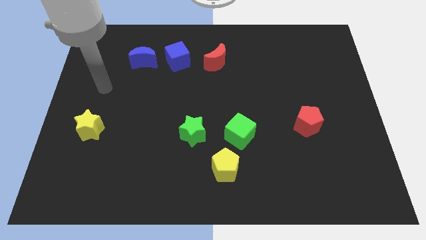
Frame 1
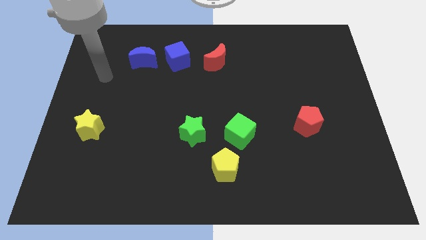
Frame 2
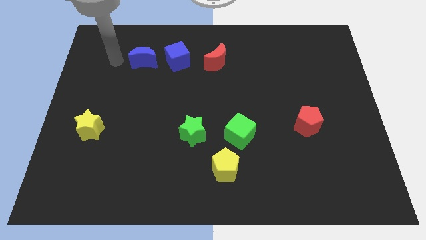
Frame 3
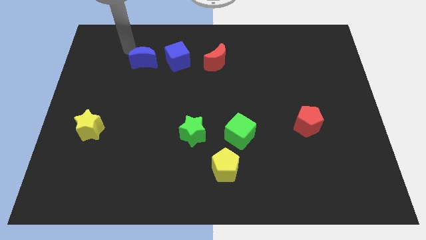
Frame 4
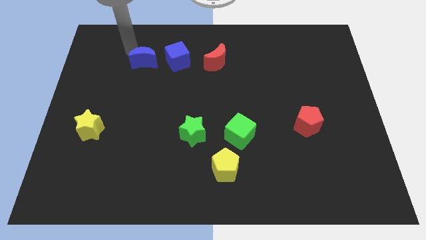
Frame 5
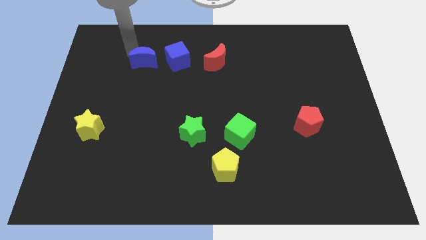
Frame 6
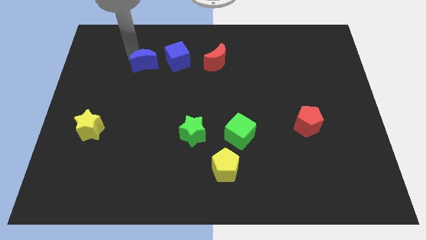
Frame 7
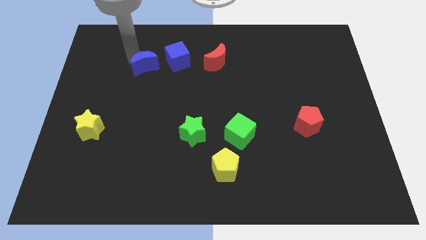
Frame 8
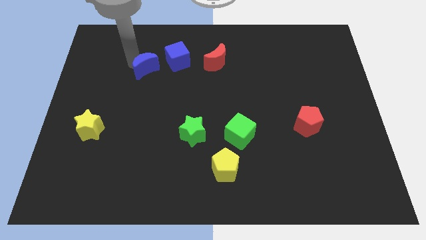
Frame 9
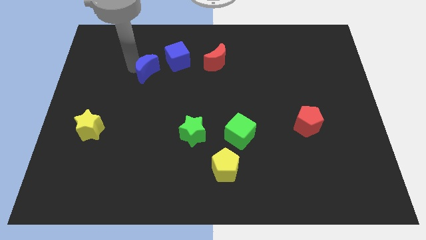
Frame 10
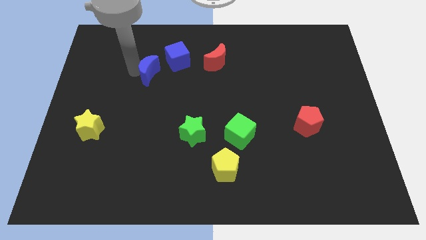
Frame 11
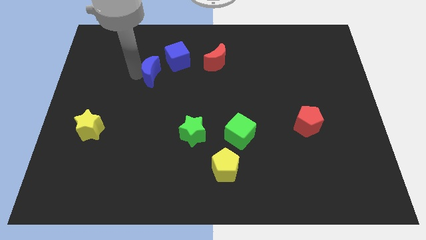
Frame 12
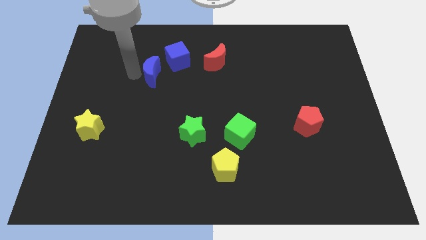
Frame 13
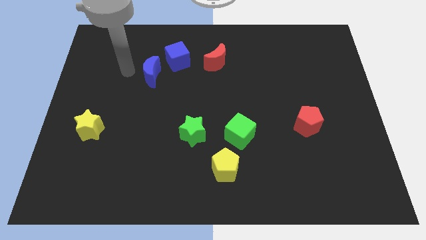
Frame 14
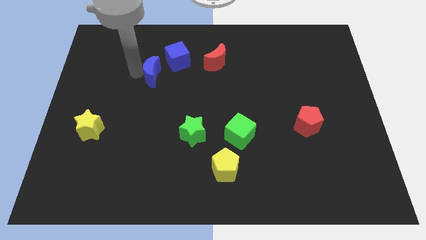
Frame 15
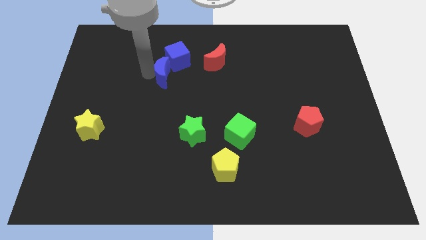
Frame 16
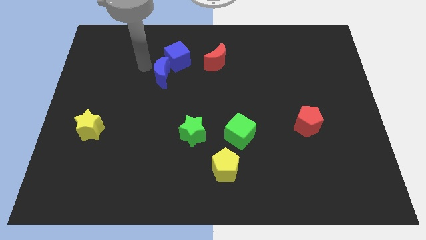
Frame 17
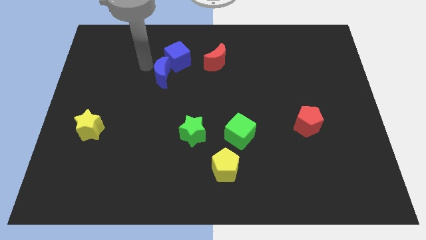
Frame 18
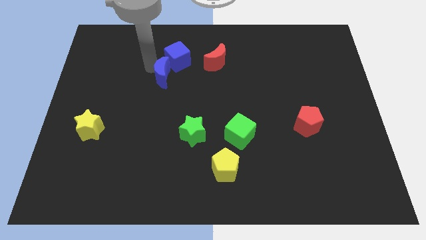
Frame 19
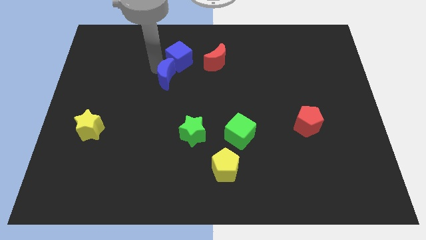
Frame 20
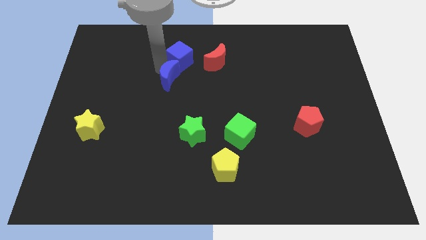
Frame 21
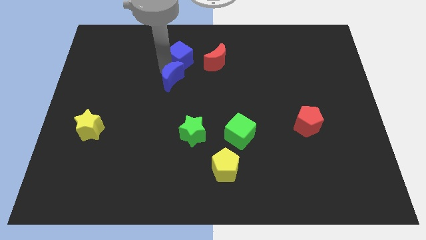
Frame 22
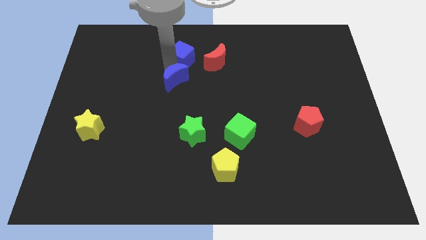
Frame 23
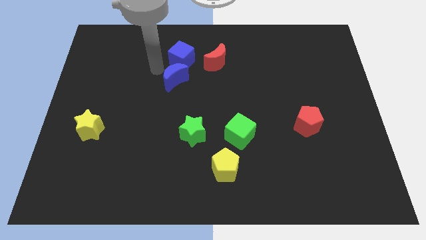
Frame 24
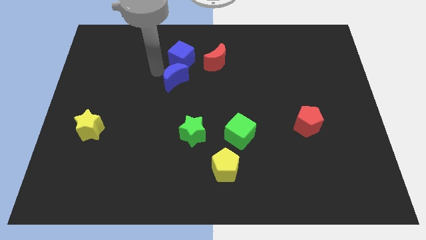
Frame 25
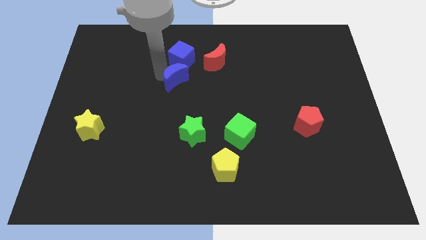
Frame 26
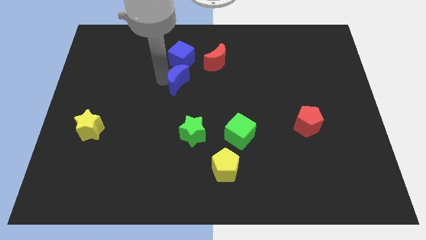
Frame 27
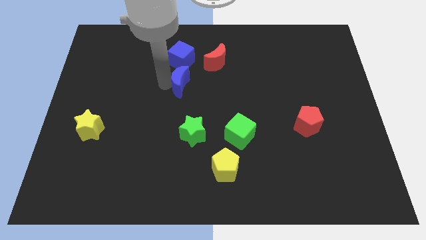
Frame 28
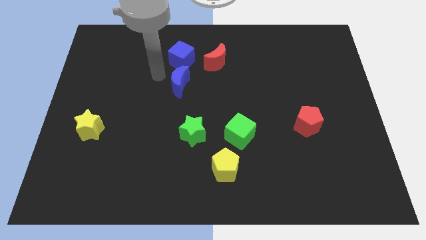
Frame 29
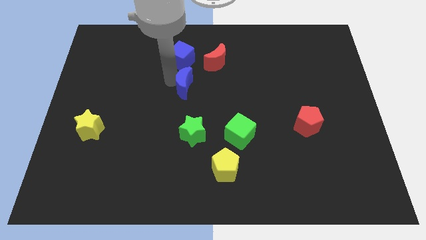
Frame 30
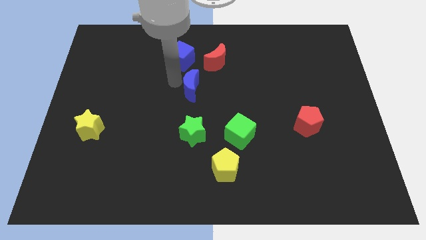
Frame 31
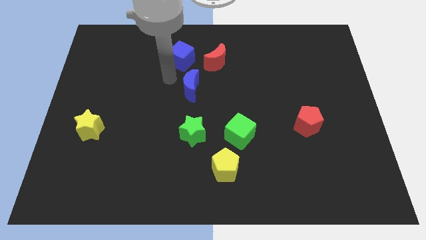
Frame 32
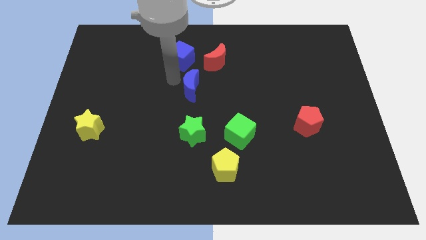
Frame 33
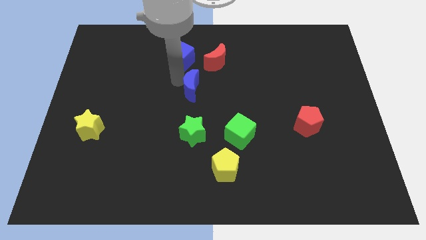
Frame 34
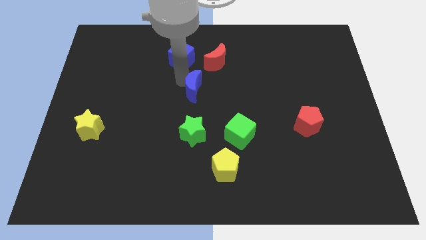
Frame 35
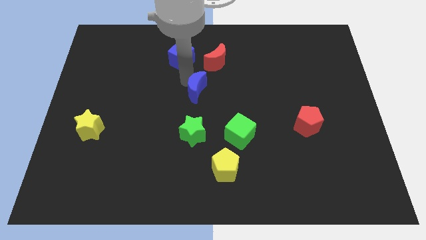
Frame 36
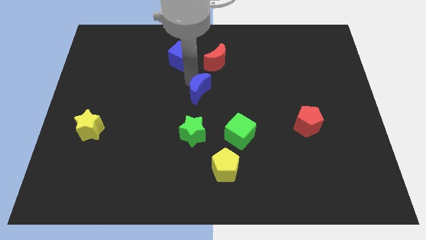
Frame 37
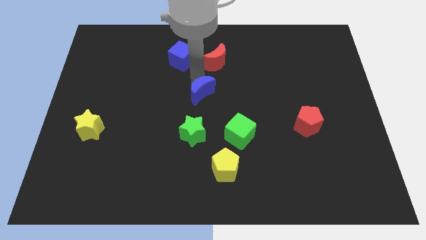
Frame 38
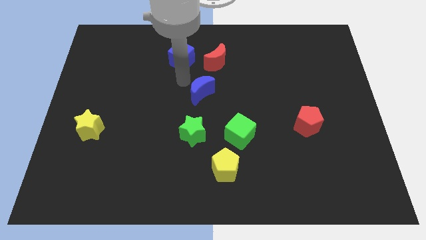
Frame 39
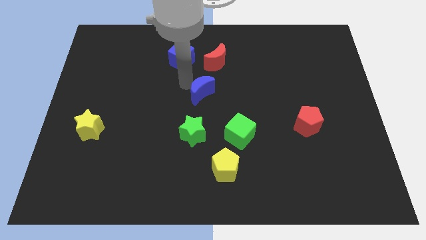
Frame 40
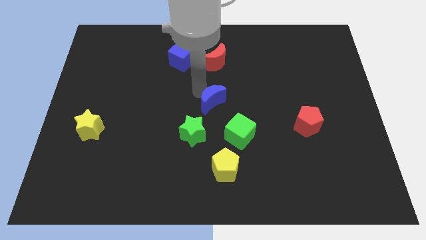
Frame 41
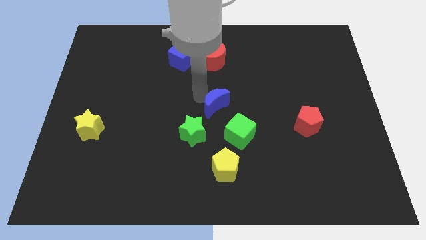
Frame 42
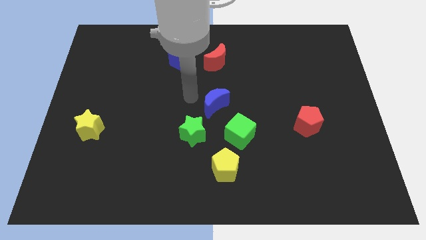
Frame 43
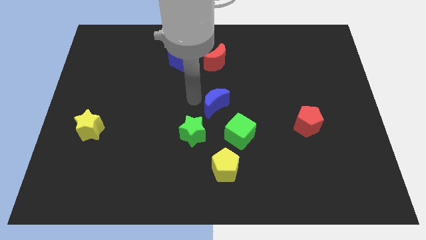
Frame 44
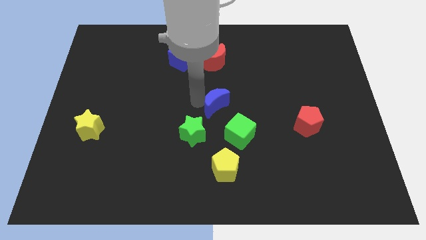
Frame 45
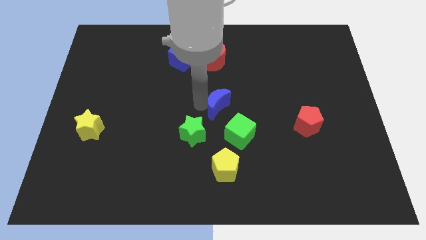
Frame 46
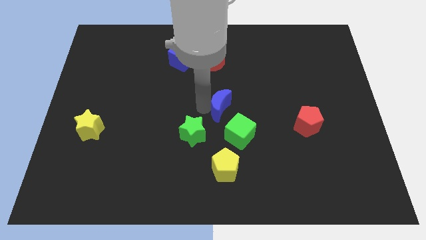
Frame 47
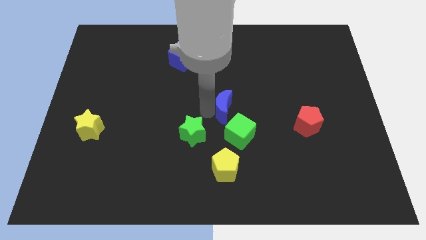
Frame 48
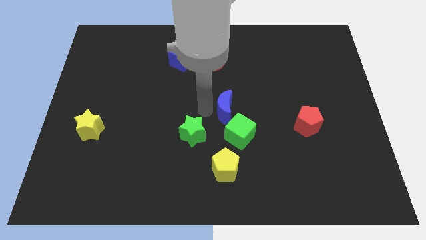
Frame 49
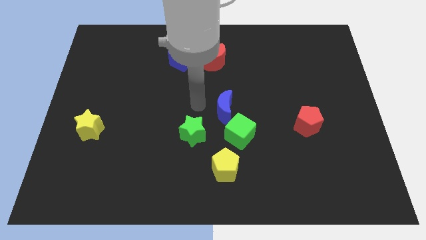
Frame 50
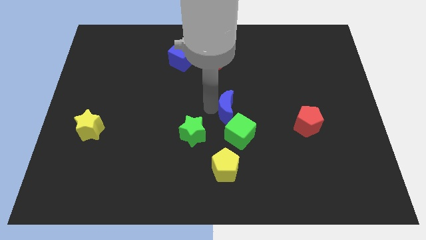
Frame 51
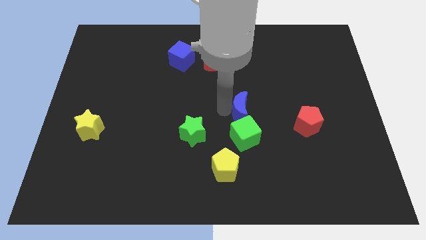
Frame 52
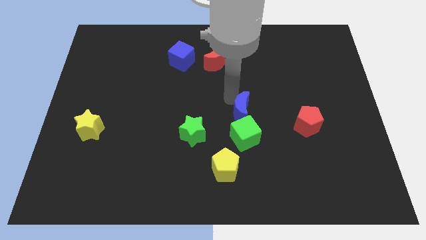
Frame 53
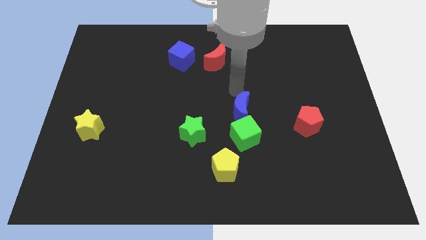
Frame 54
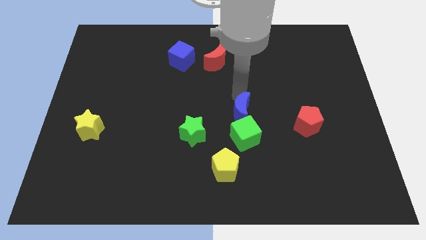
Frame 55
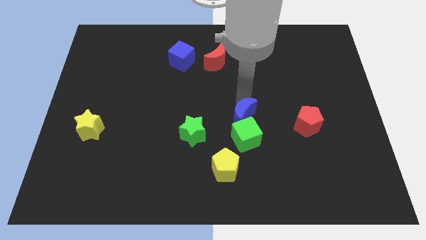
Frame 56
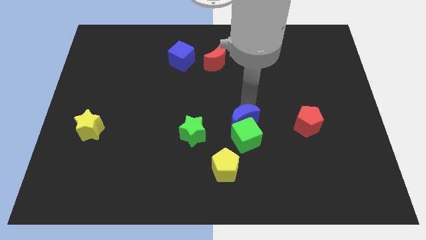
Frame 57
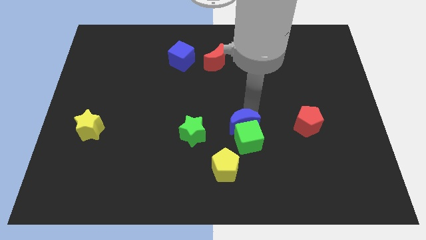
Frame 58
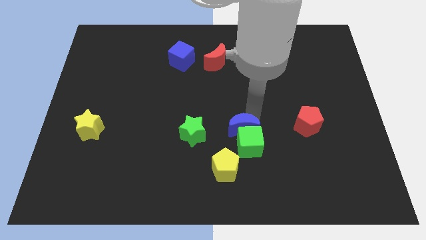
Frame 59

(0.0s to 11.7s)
push the blue moon to the top right of the yellow pentagon

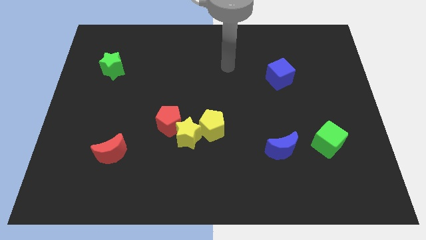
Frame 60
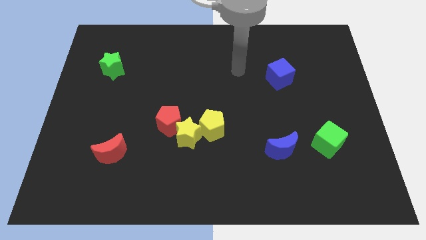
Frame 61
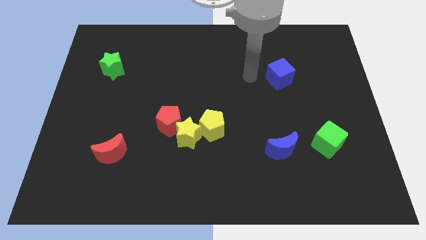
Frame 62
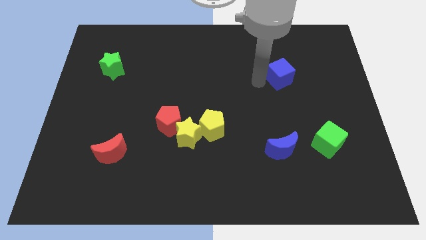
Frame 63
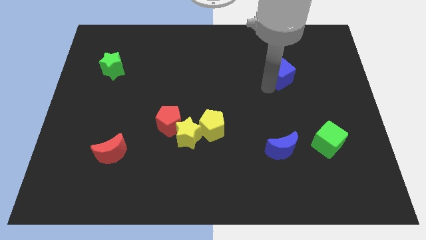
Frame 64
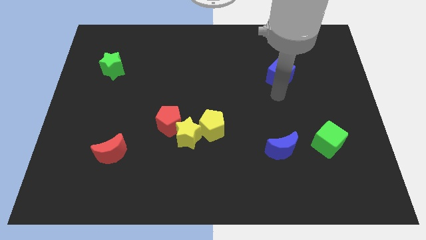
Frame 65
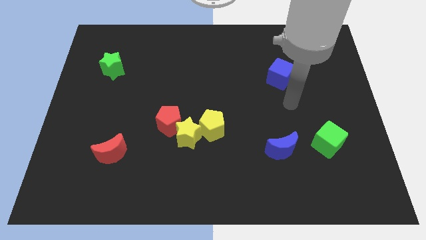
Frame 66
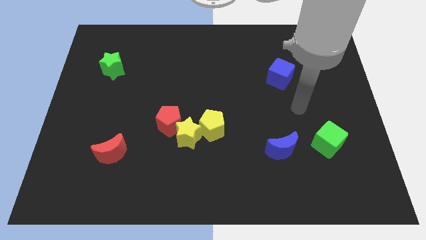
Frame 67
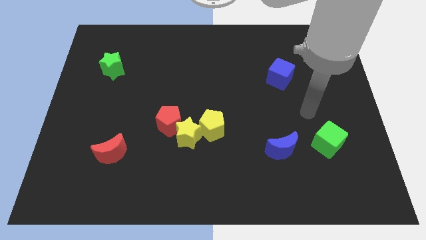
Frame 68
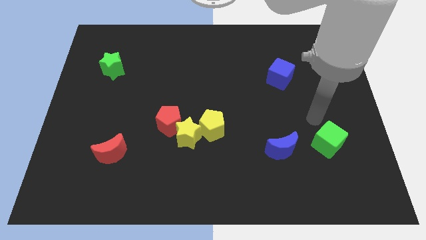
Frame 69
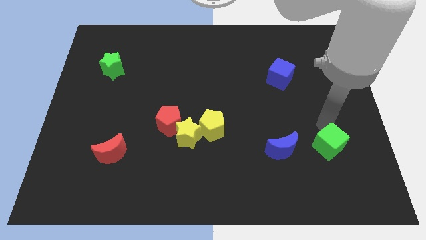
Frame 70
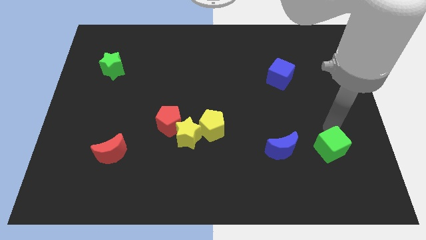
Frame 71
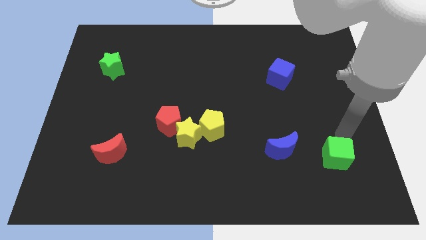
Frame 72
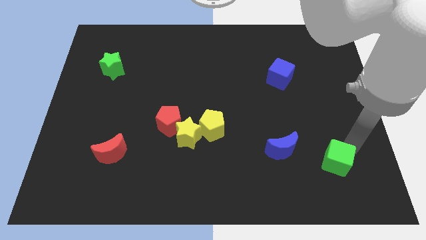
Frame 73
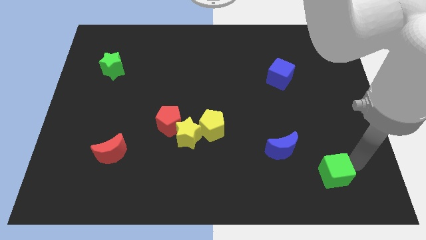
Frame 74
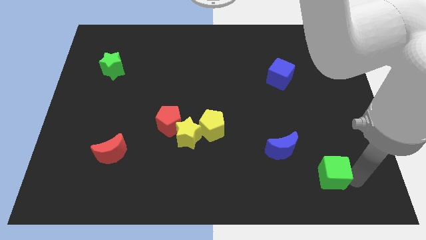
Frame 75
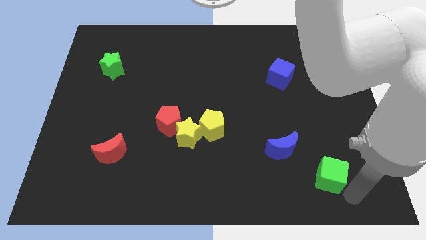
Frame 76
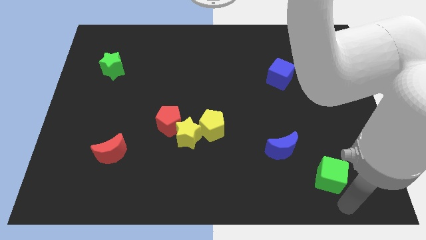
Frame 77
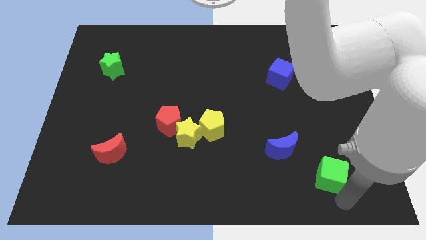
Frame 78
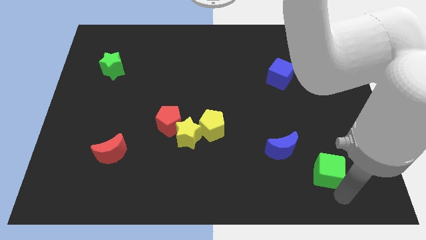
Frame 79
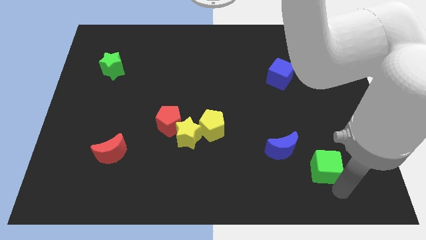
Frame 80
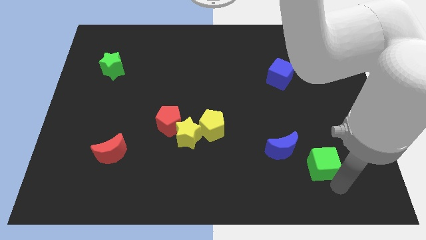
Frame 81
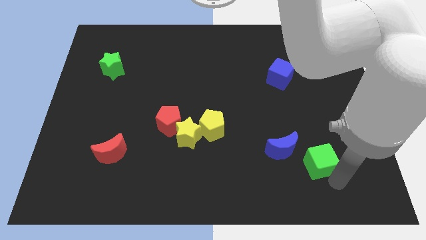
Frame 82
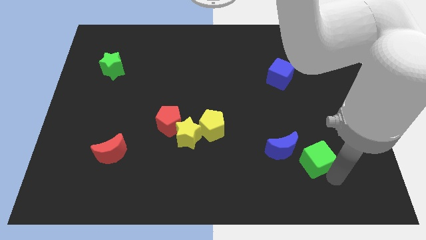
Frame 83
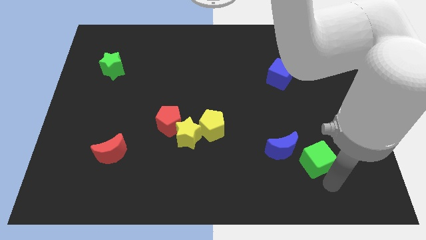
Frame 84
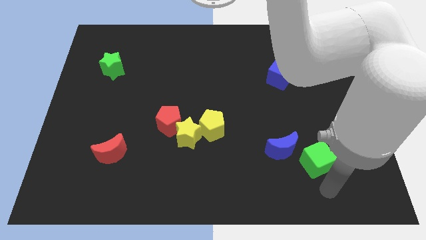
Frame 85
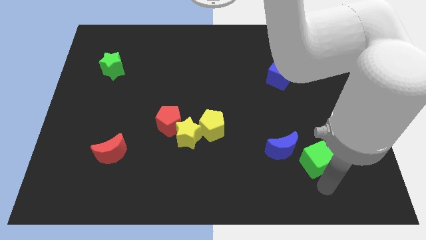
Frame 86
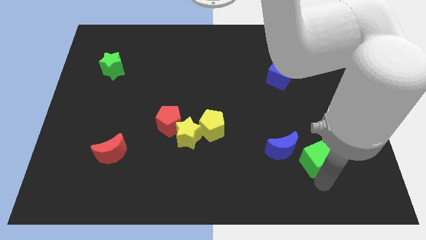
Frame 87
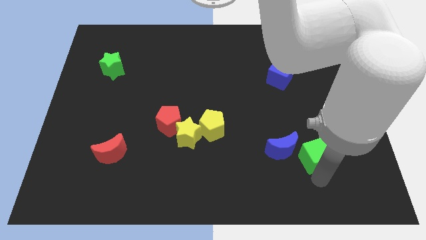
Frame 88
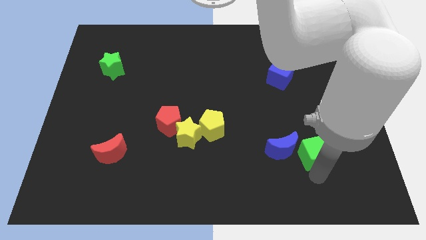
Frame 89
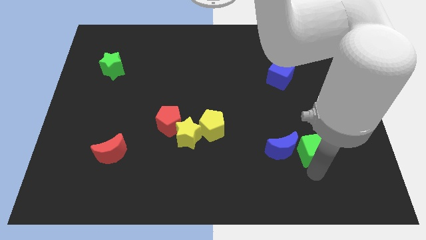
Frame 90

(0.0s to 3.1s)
slide the green cube to the top right side of the blue moon
